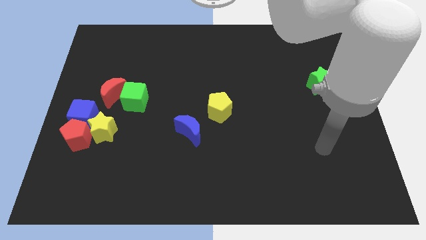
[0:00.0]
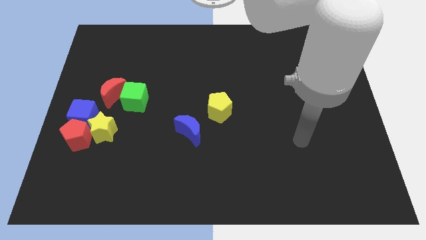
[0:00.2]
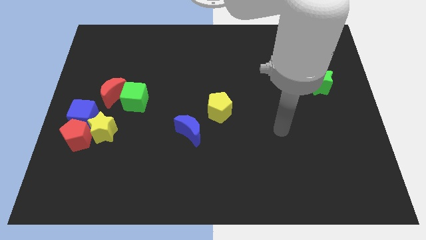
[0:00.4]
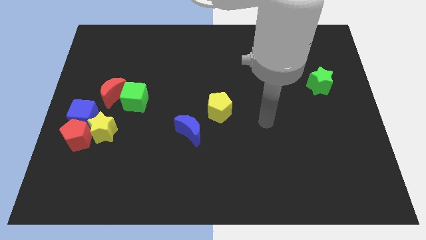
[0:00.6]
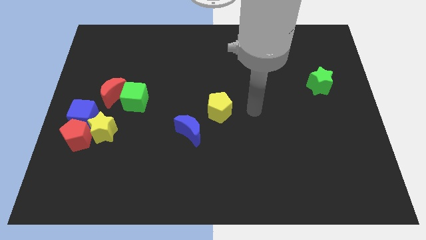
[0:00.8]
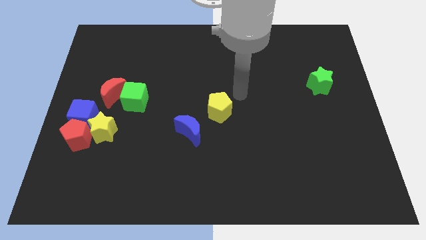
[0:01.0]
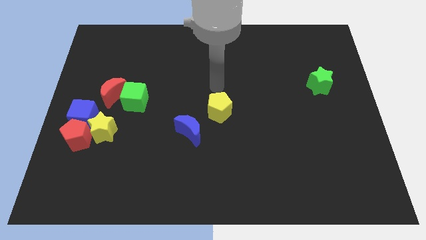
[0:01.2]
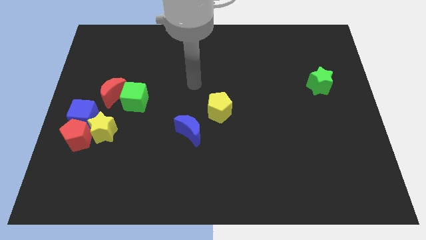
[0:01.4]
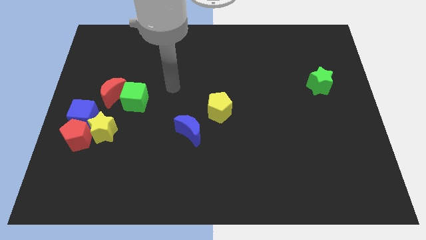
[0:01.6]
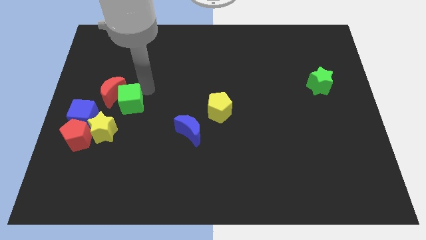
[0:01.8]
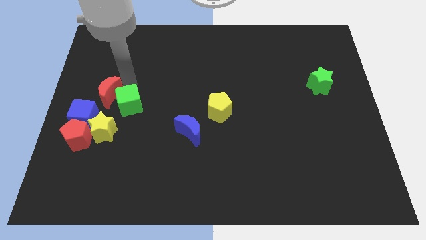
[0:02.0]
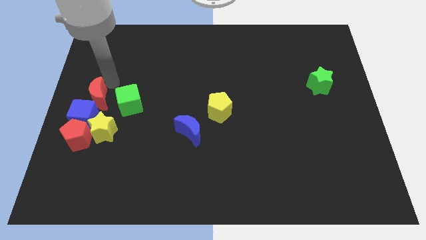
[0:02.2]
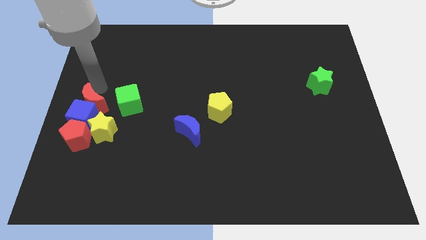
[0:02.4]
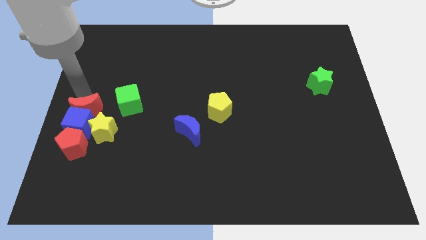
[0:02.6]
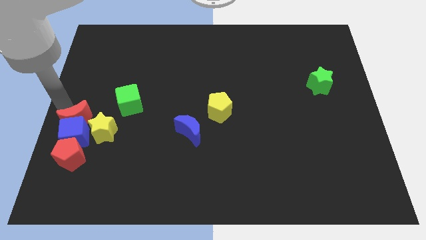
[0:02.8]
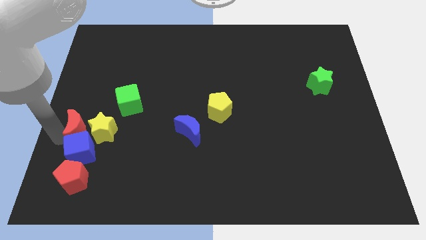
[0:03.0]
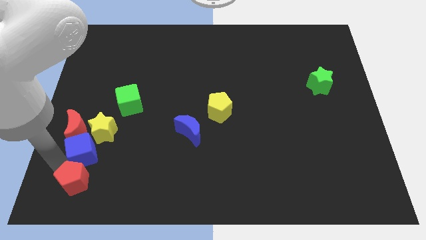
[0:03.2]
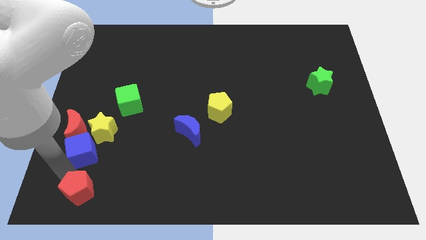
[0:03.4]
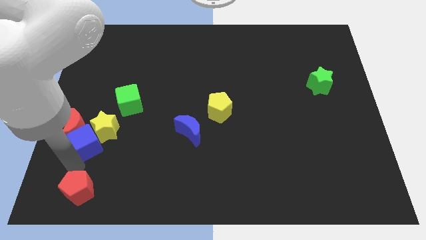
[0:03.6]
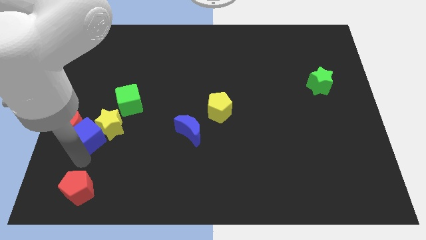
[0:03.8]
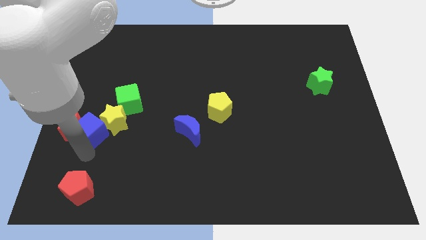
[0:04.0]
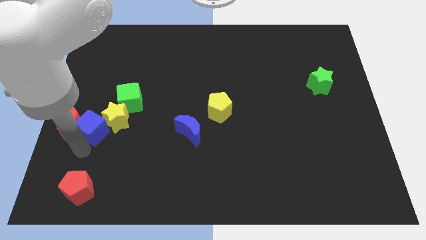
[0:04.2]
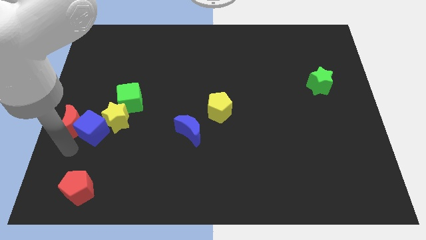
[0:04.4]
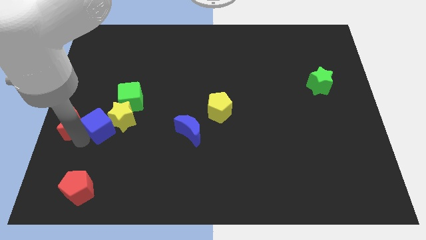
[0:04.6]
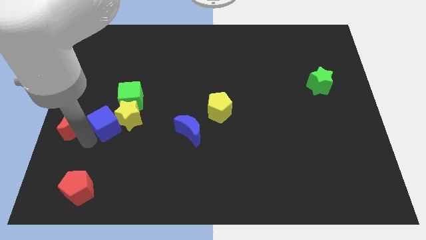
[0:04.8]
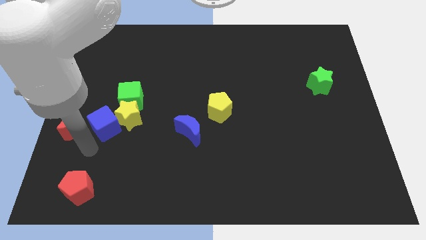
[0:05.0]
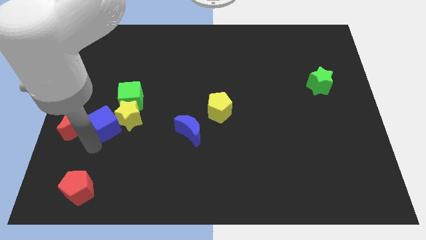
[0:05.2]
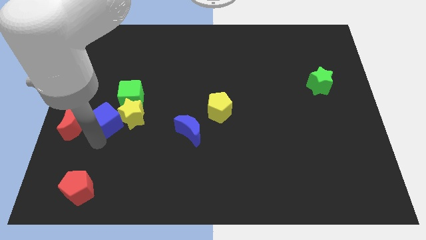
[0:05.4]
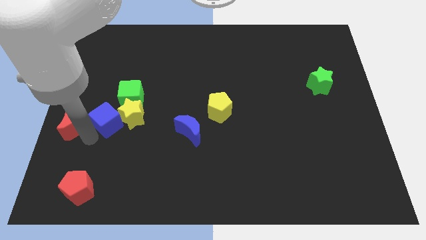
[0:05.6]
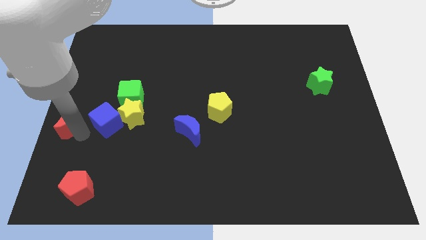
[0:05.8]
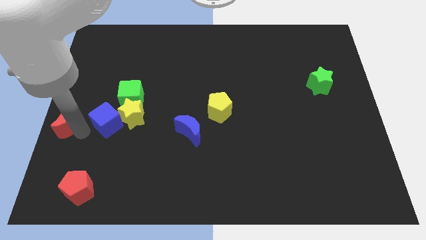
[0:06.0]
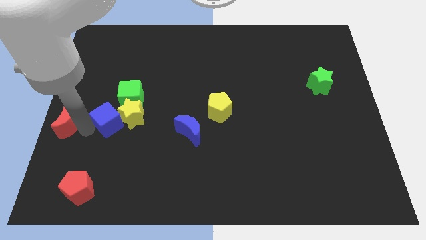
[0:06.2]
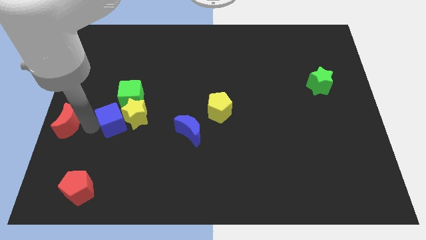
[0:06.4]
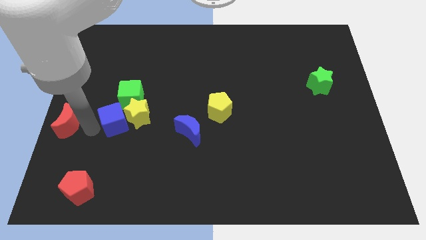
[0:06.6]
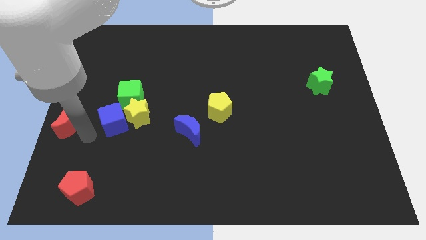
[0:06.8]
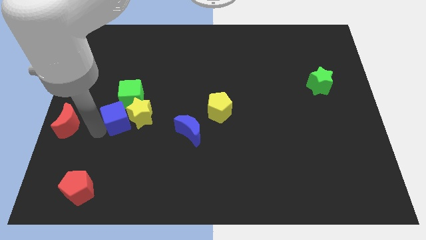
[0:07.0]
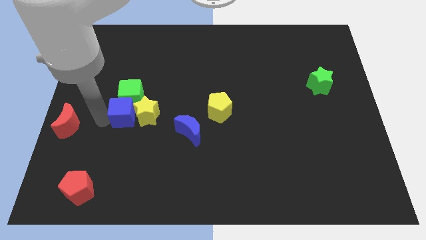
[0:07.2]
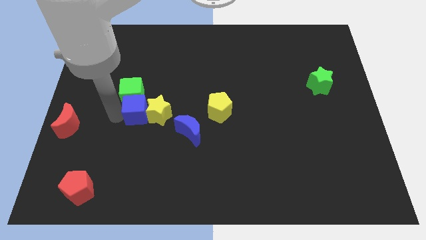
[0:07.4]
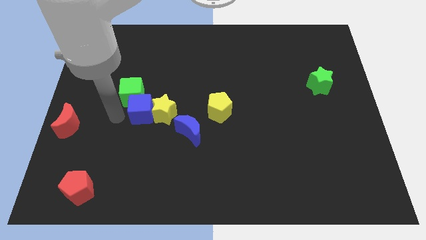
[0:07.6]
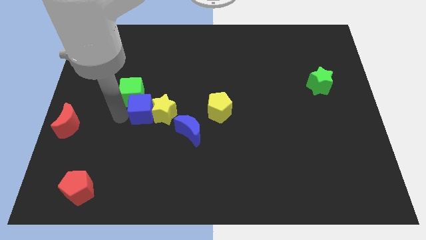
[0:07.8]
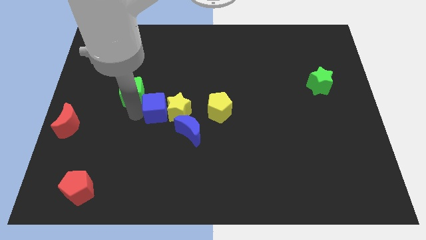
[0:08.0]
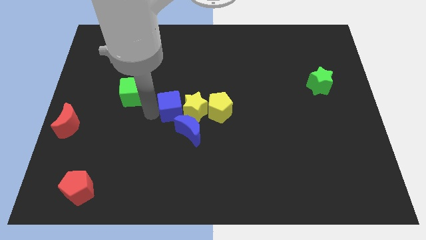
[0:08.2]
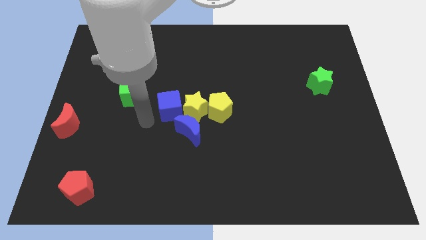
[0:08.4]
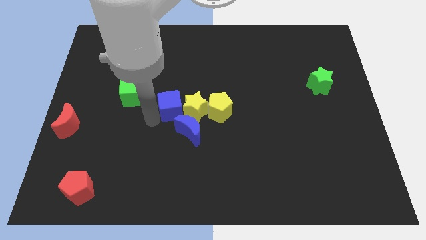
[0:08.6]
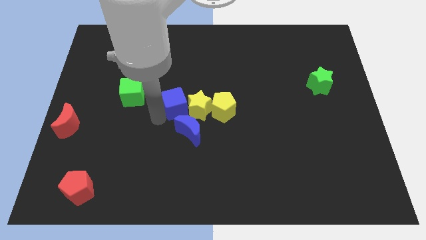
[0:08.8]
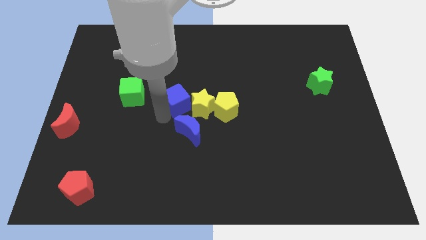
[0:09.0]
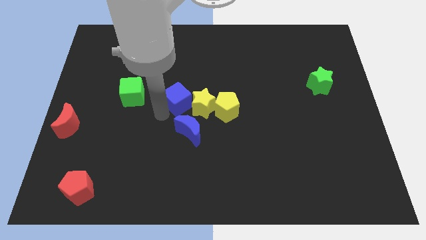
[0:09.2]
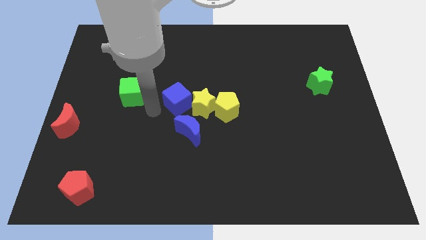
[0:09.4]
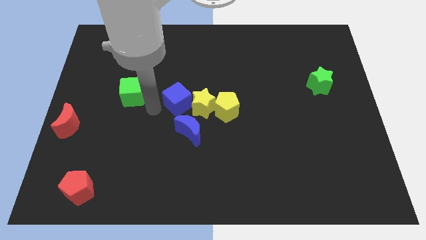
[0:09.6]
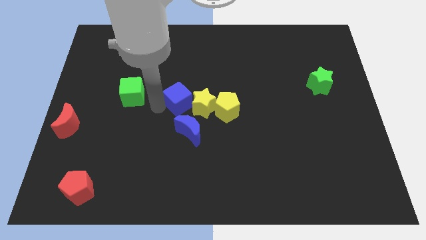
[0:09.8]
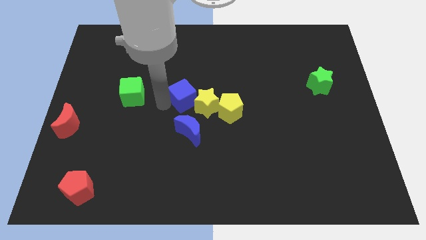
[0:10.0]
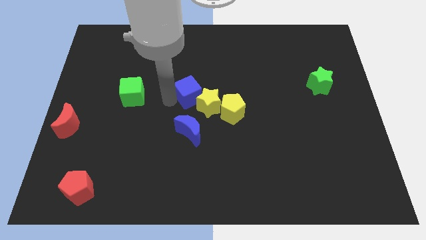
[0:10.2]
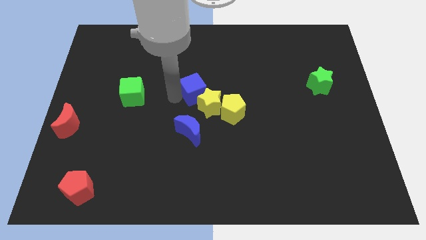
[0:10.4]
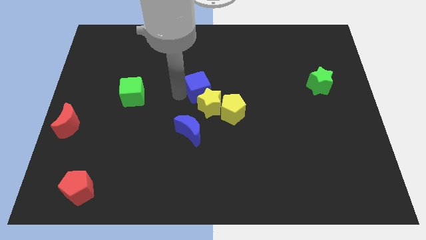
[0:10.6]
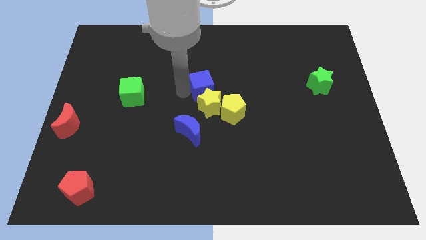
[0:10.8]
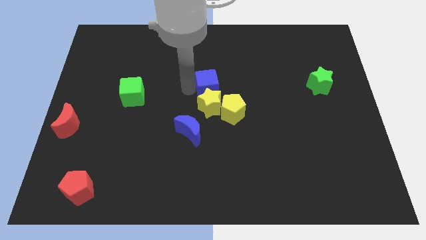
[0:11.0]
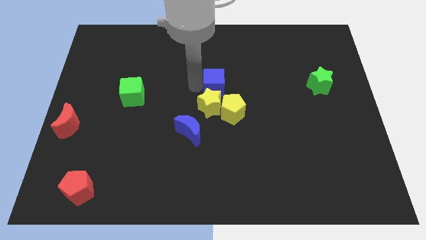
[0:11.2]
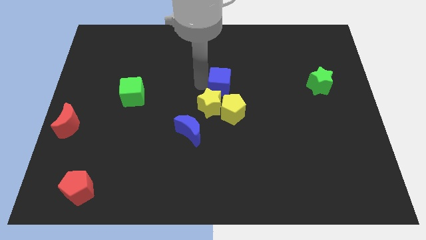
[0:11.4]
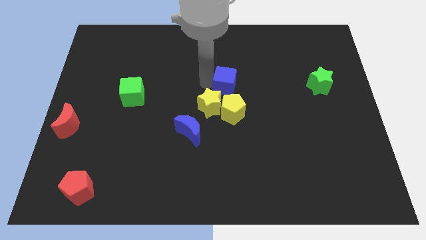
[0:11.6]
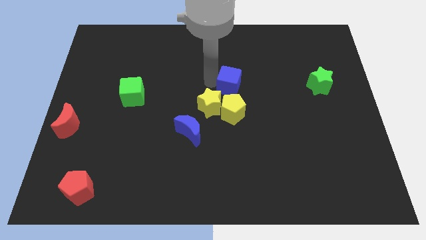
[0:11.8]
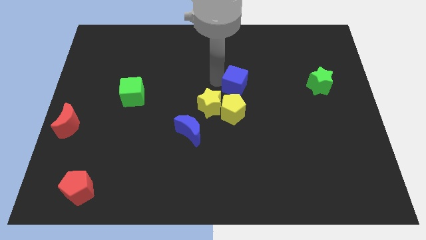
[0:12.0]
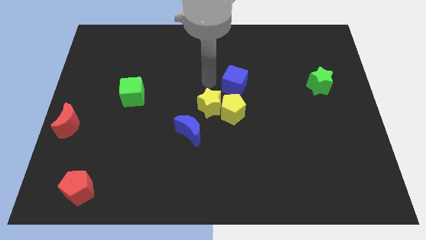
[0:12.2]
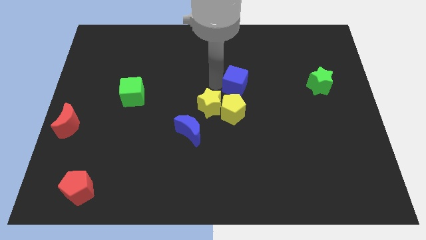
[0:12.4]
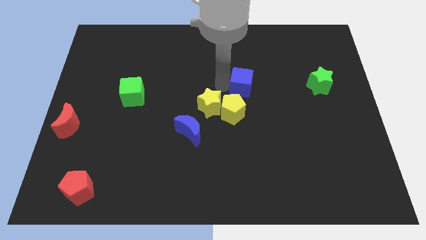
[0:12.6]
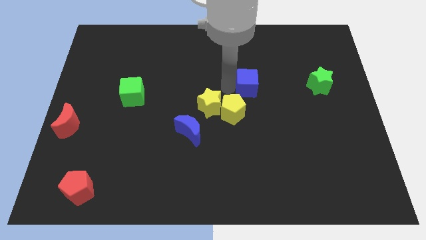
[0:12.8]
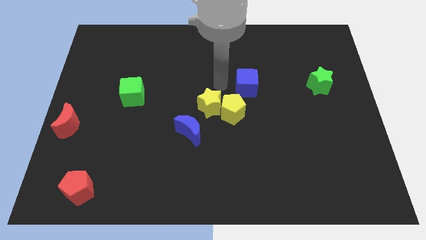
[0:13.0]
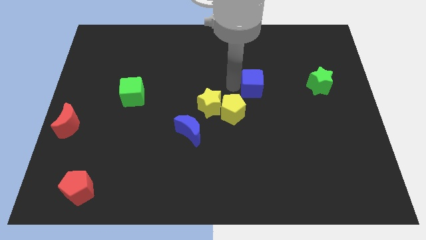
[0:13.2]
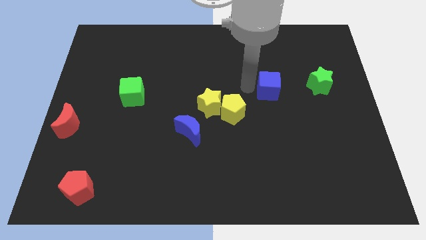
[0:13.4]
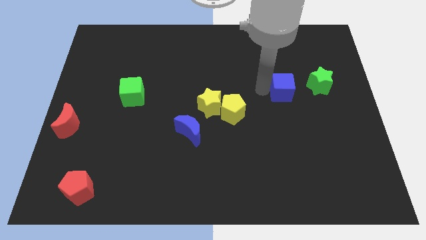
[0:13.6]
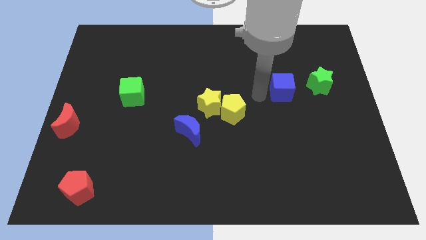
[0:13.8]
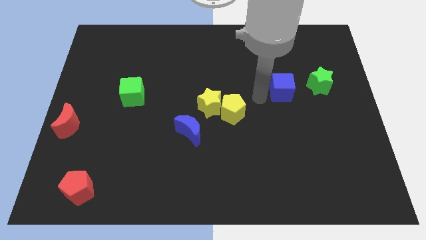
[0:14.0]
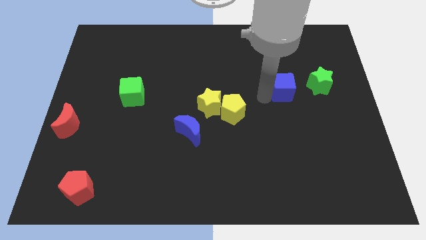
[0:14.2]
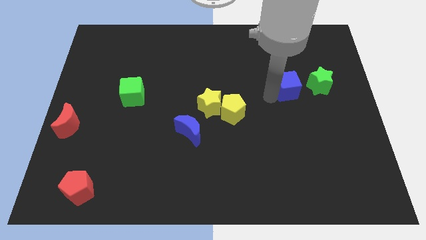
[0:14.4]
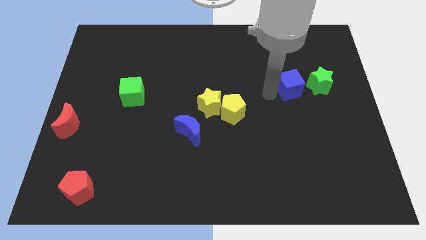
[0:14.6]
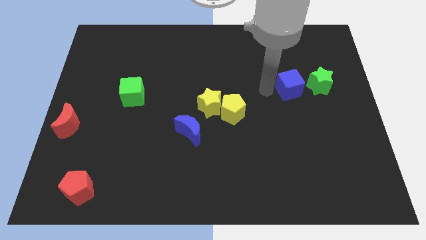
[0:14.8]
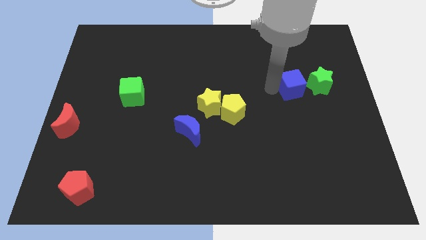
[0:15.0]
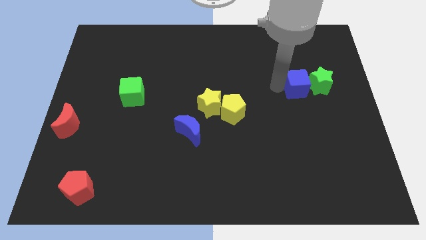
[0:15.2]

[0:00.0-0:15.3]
put the blue cube next to the green star
